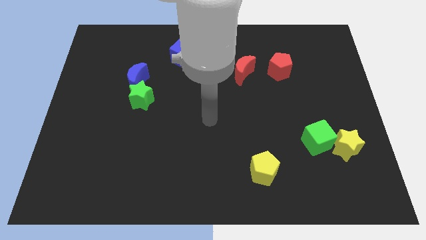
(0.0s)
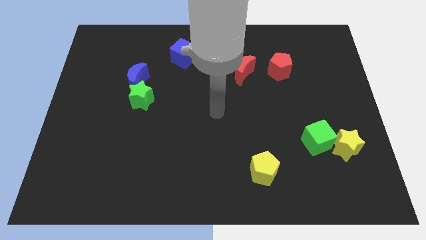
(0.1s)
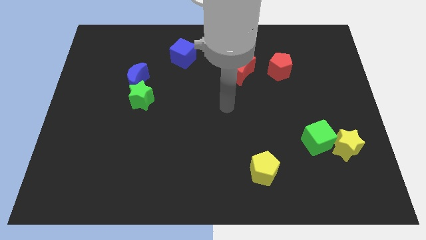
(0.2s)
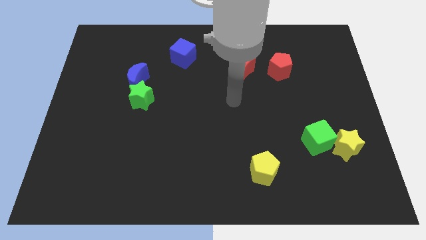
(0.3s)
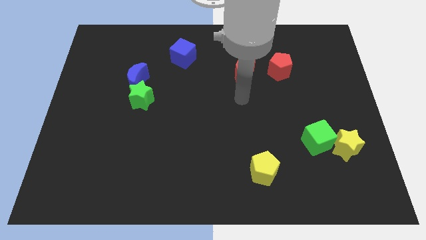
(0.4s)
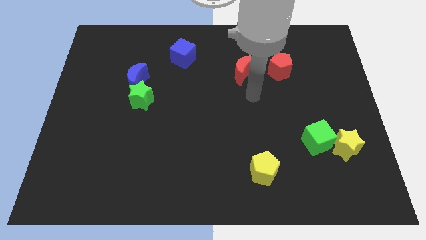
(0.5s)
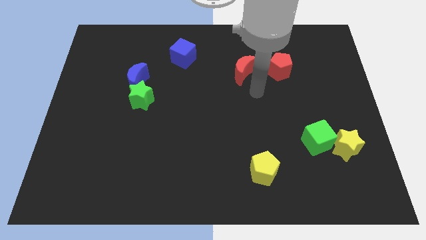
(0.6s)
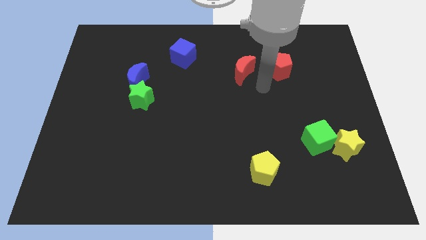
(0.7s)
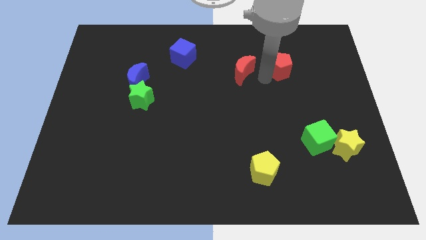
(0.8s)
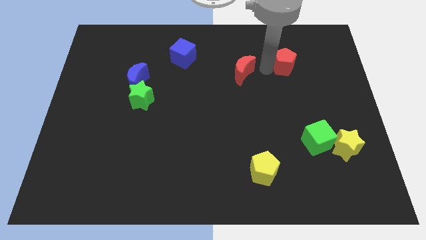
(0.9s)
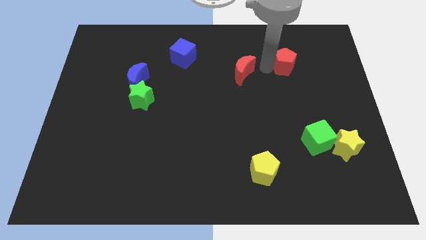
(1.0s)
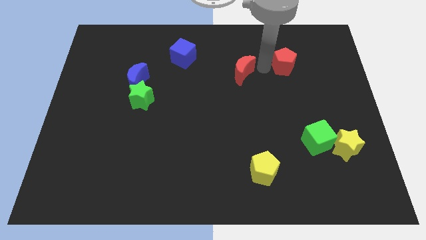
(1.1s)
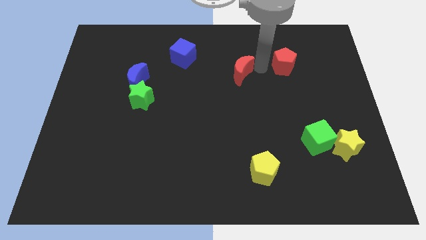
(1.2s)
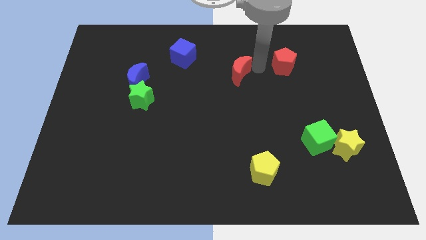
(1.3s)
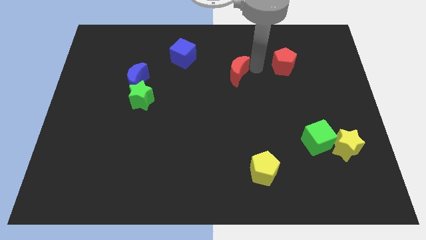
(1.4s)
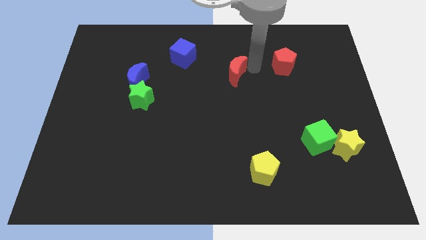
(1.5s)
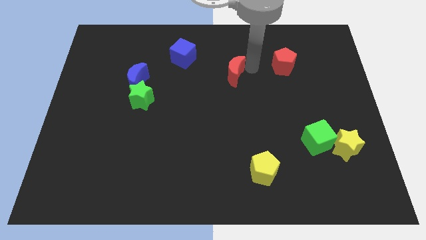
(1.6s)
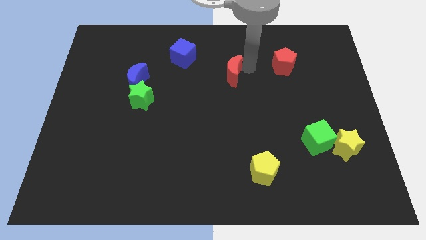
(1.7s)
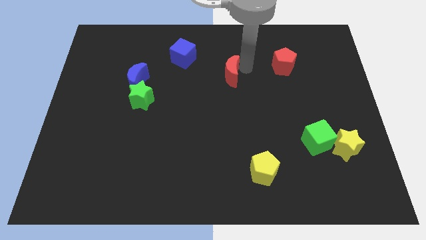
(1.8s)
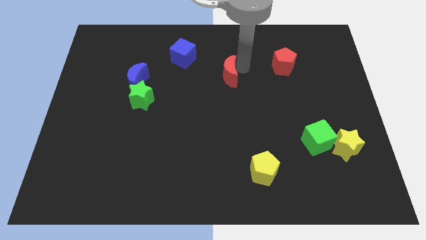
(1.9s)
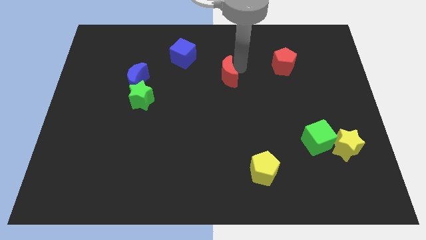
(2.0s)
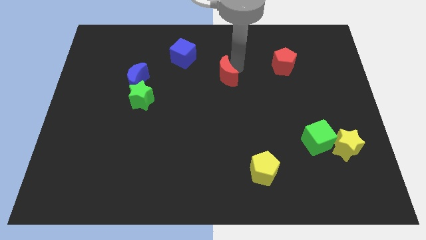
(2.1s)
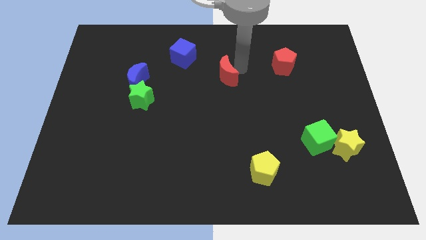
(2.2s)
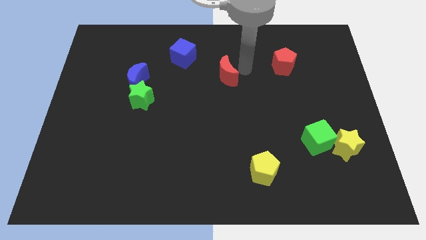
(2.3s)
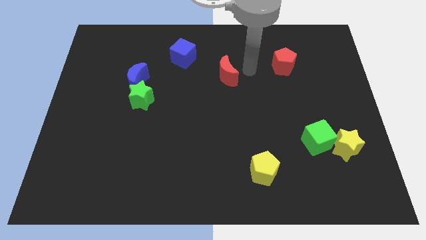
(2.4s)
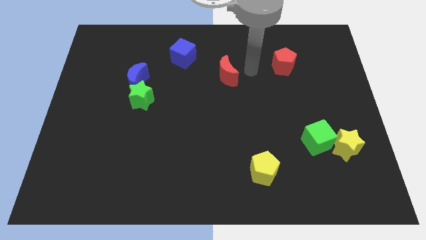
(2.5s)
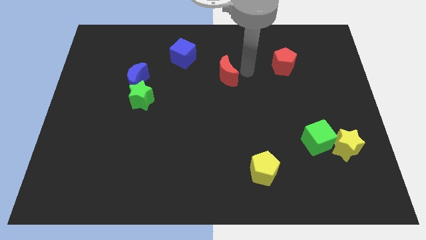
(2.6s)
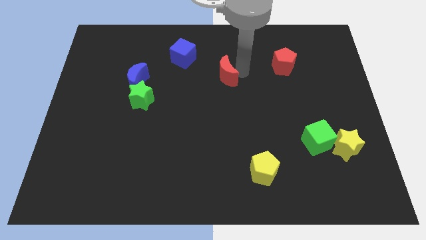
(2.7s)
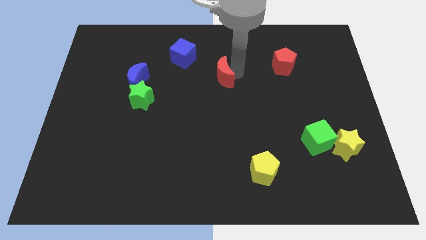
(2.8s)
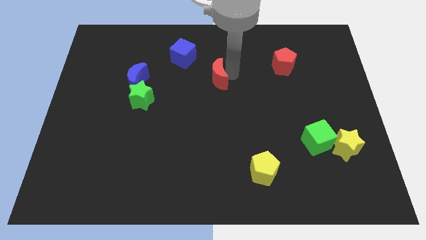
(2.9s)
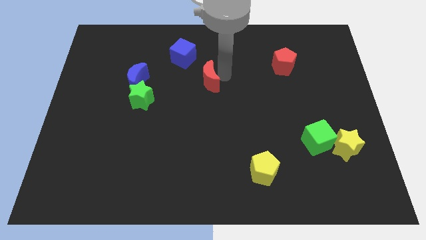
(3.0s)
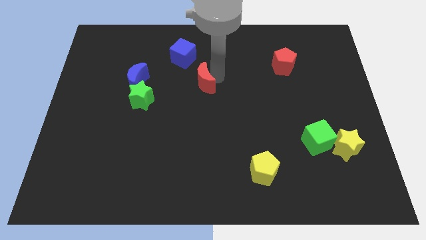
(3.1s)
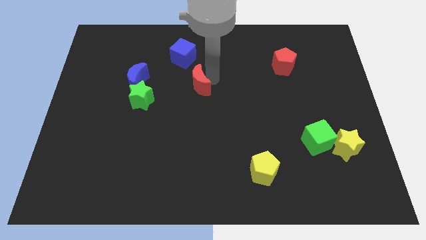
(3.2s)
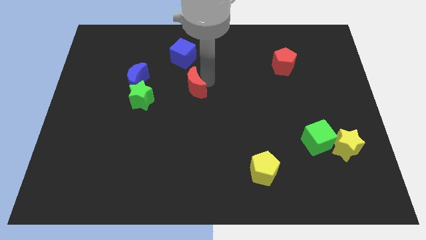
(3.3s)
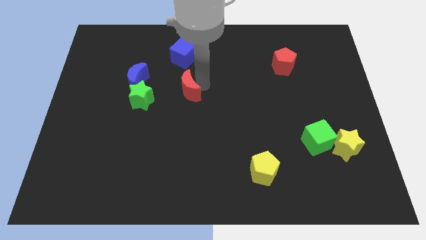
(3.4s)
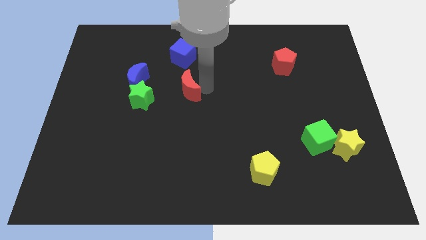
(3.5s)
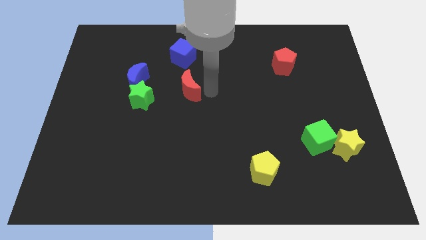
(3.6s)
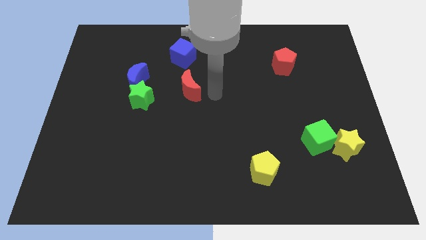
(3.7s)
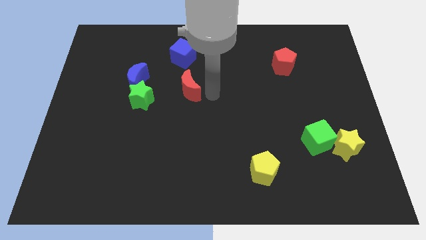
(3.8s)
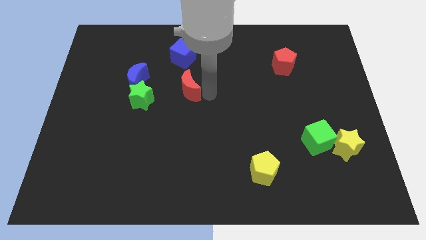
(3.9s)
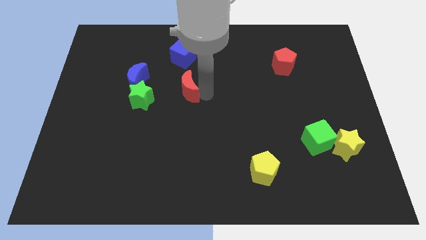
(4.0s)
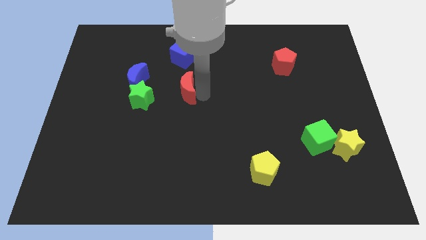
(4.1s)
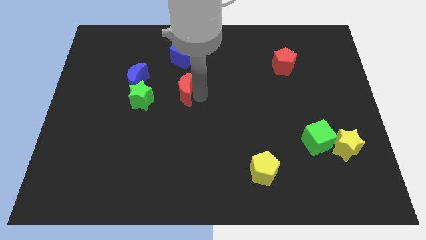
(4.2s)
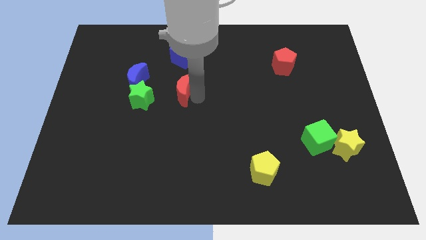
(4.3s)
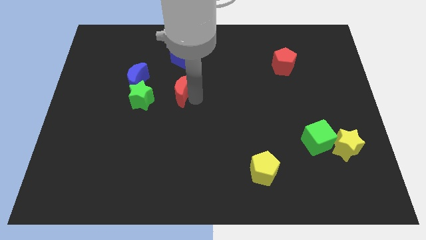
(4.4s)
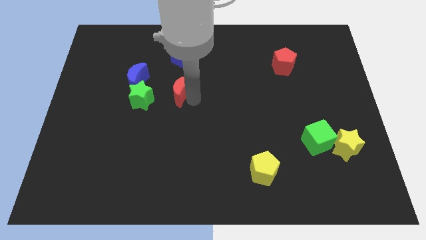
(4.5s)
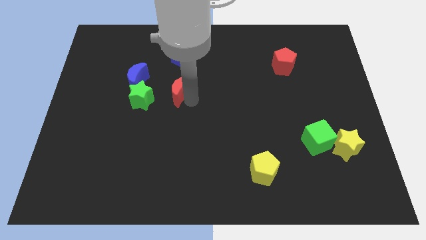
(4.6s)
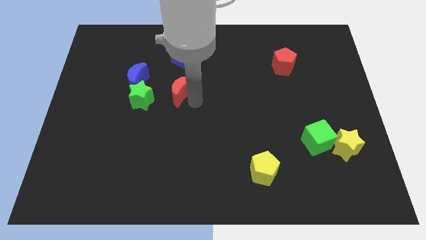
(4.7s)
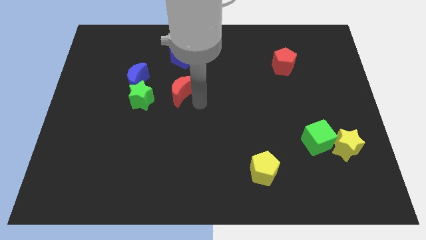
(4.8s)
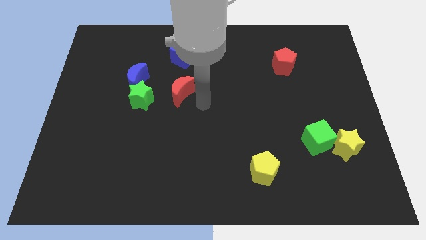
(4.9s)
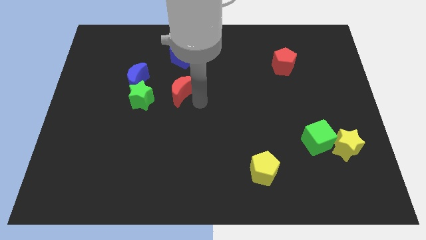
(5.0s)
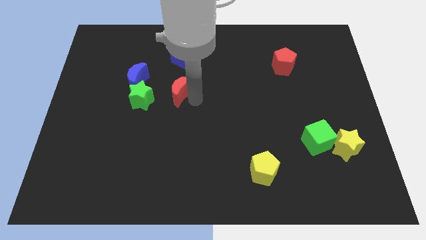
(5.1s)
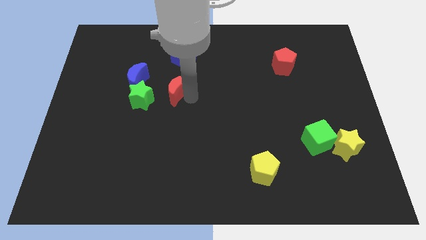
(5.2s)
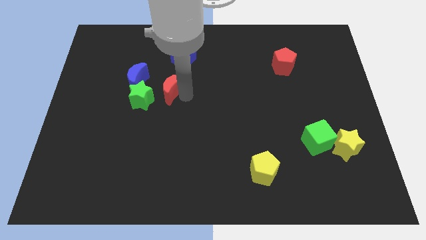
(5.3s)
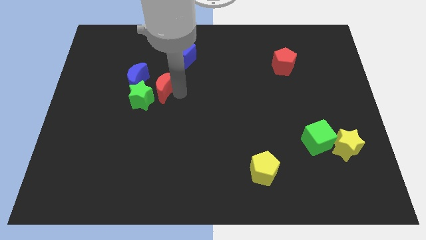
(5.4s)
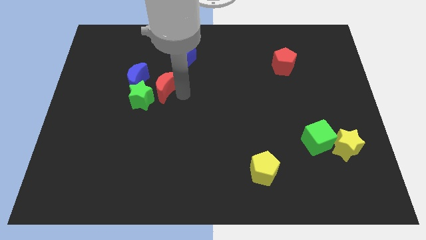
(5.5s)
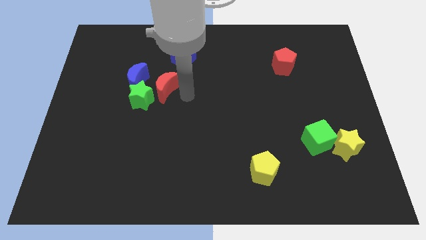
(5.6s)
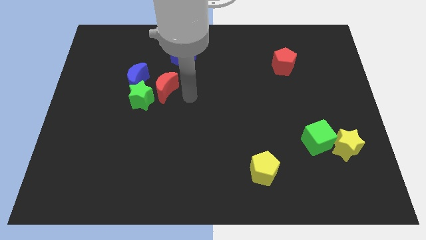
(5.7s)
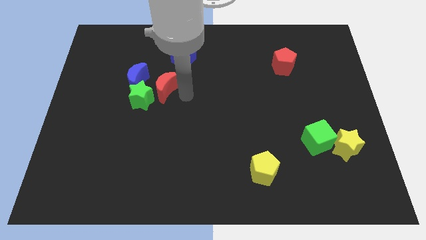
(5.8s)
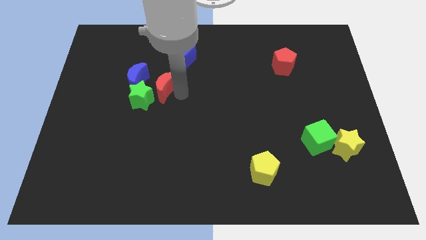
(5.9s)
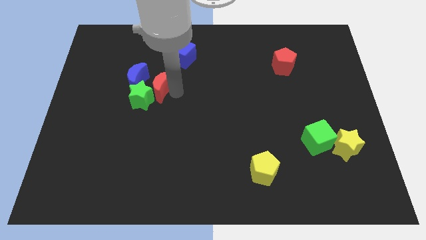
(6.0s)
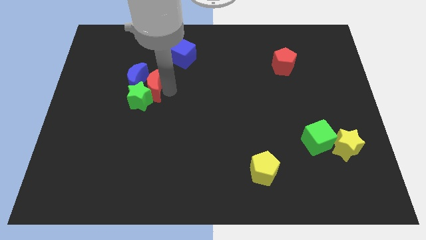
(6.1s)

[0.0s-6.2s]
push the red moon close to the blue moon

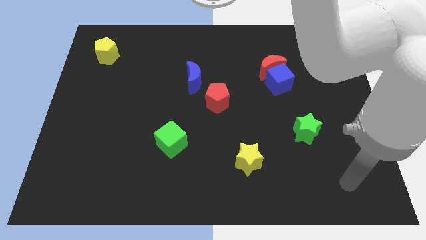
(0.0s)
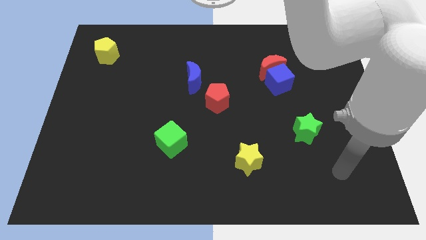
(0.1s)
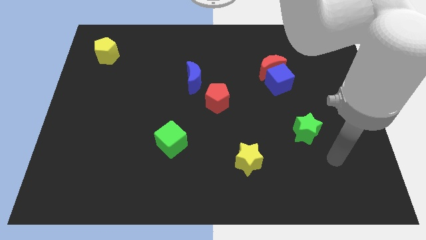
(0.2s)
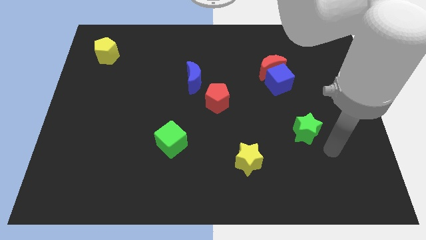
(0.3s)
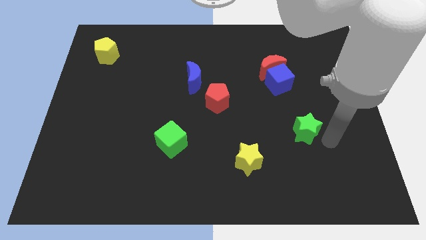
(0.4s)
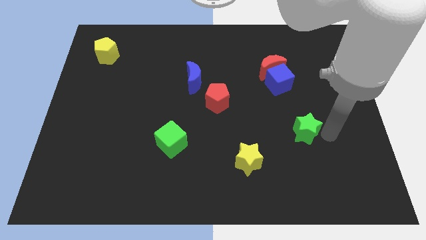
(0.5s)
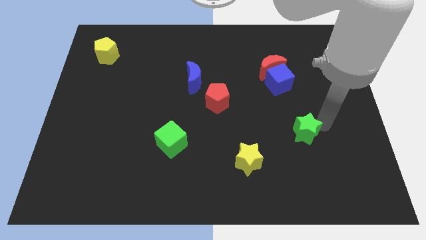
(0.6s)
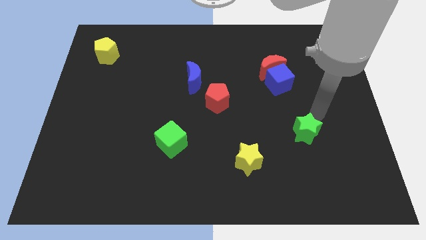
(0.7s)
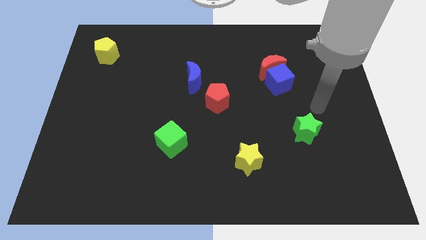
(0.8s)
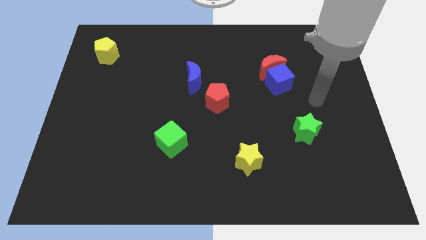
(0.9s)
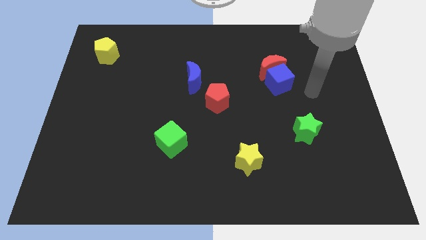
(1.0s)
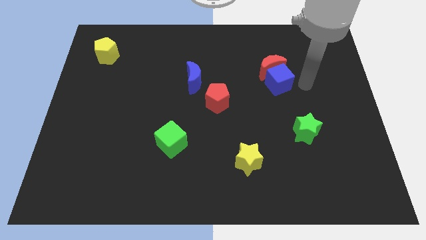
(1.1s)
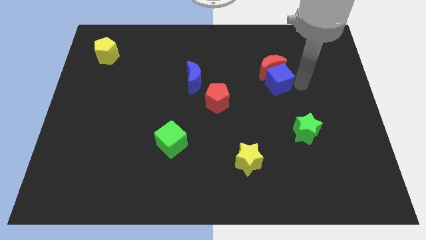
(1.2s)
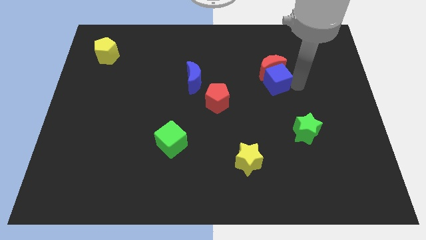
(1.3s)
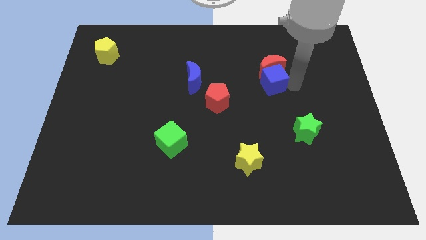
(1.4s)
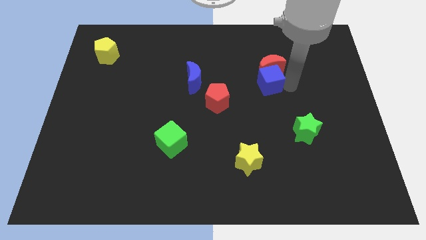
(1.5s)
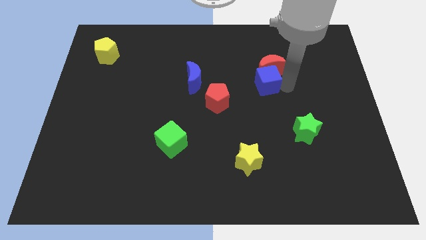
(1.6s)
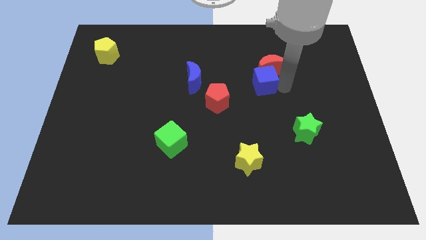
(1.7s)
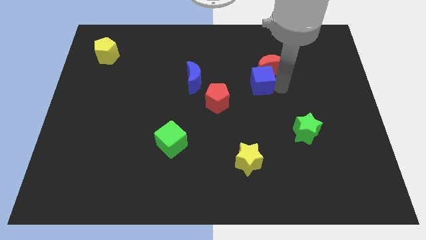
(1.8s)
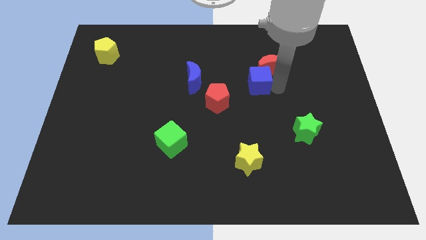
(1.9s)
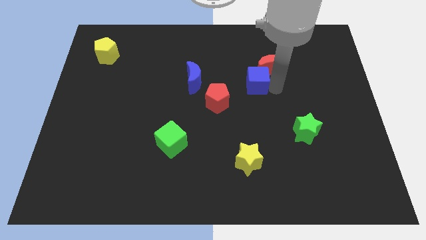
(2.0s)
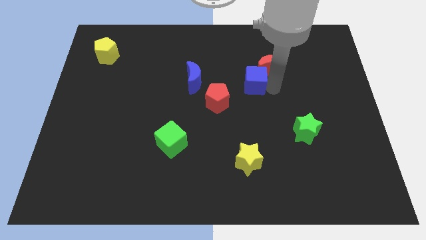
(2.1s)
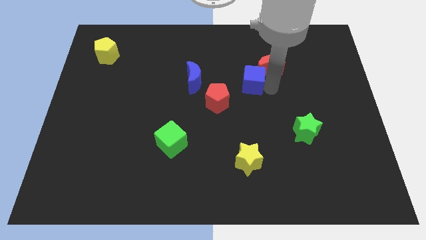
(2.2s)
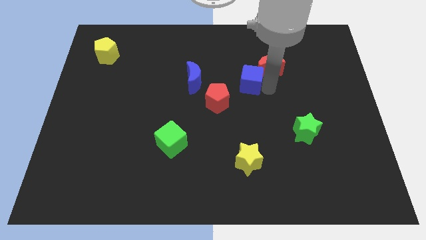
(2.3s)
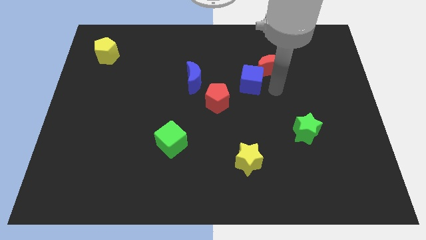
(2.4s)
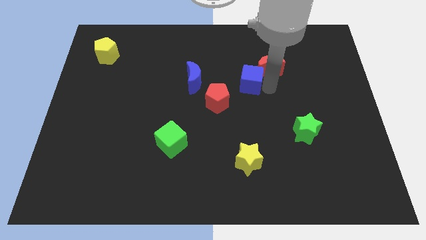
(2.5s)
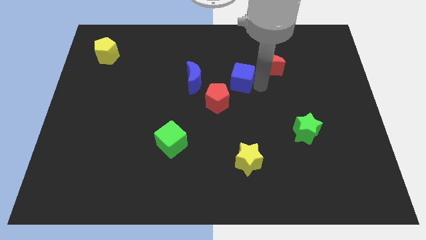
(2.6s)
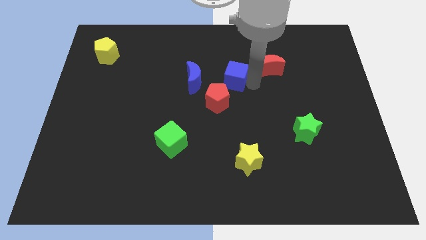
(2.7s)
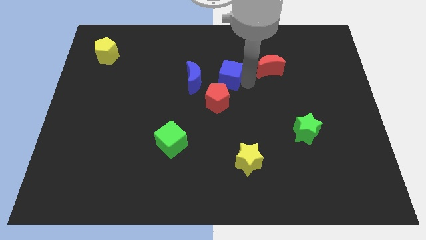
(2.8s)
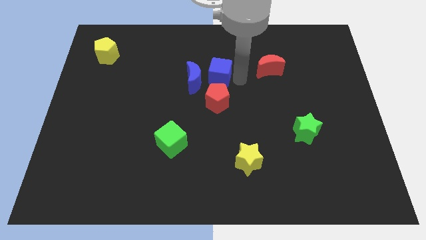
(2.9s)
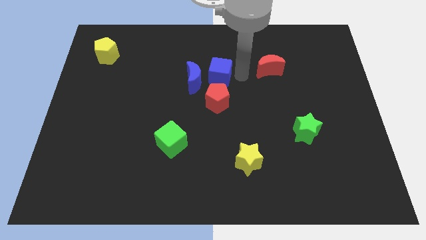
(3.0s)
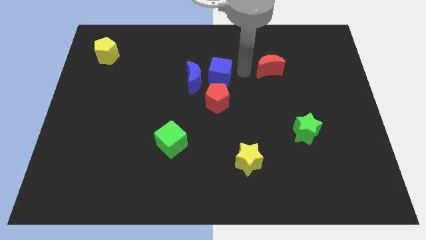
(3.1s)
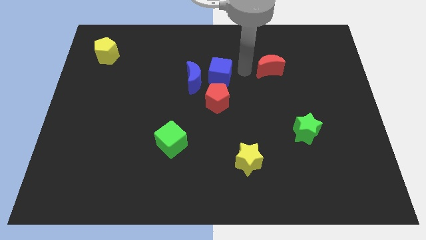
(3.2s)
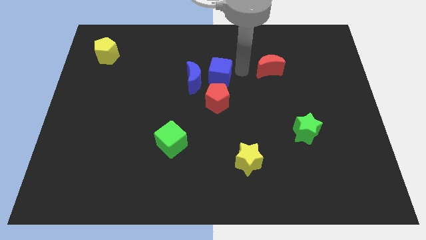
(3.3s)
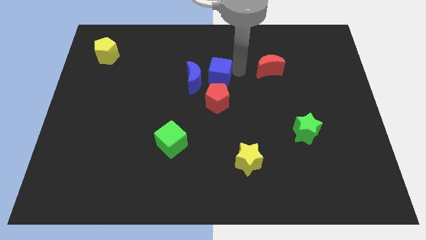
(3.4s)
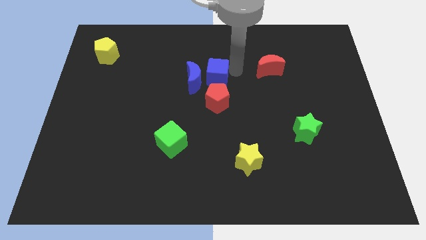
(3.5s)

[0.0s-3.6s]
slide the blue cube towards the blue moon
